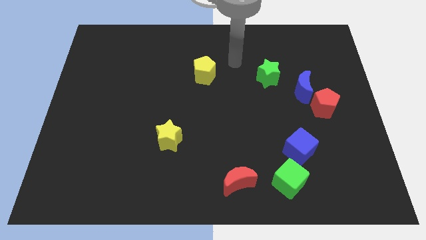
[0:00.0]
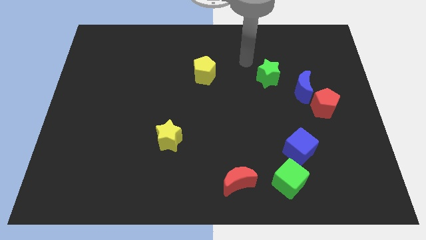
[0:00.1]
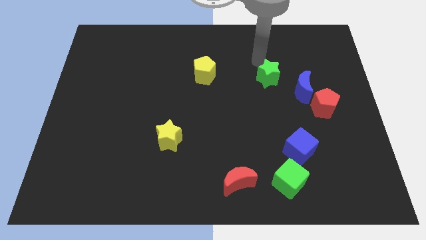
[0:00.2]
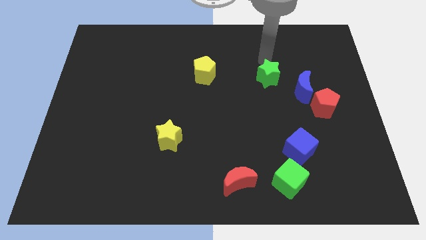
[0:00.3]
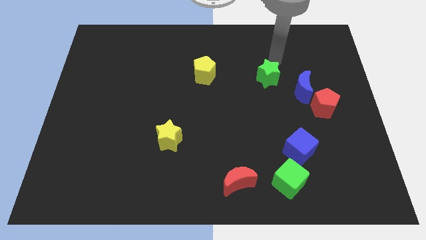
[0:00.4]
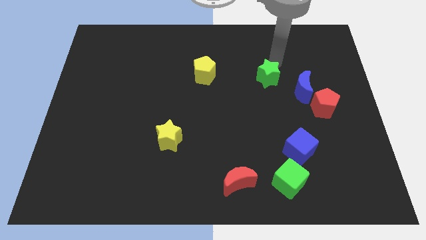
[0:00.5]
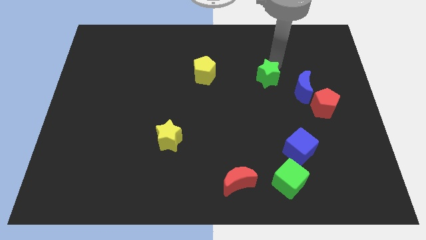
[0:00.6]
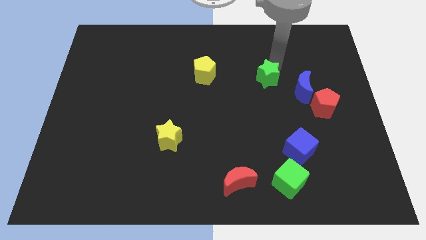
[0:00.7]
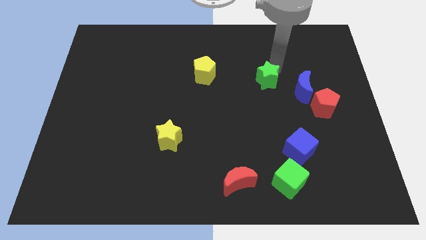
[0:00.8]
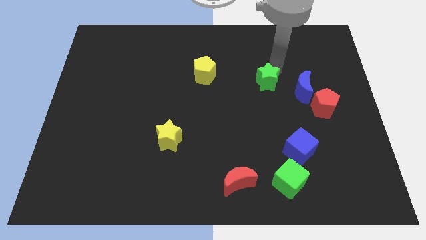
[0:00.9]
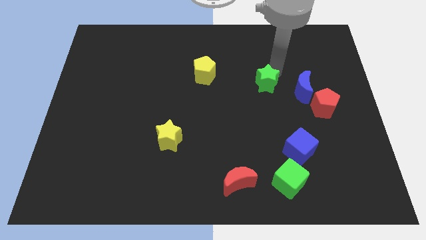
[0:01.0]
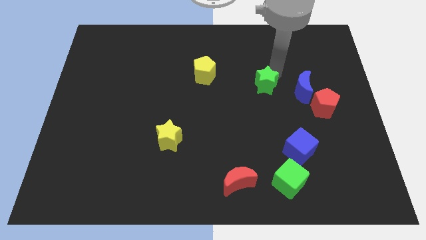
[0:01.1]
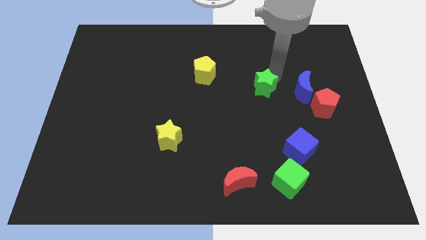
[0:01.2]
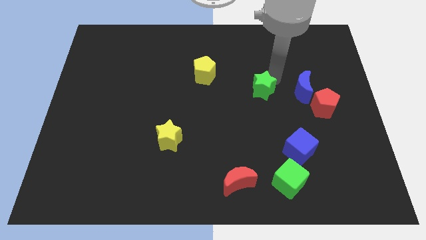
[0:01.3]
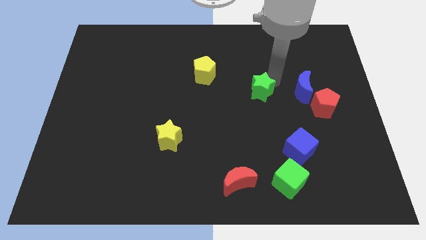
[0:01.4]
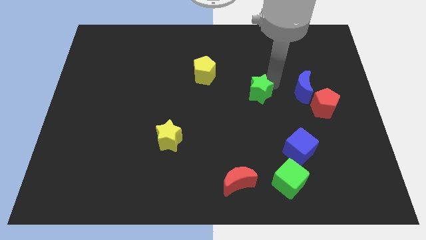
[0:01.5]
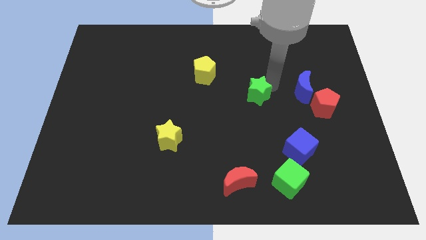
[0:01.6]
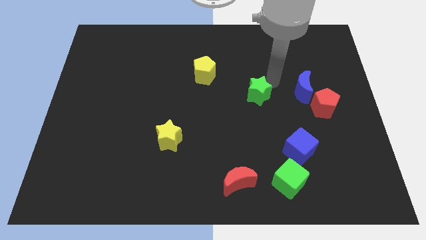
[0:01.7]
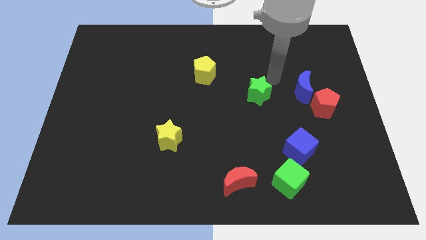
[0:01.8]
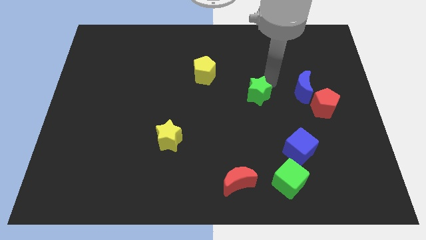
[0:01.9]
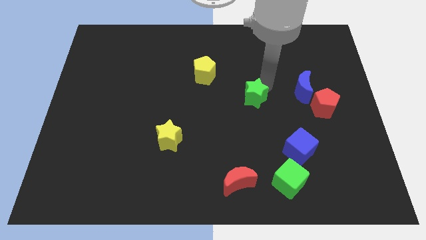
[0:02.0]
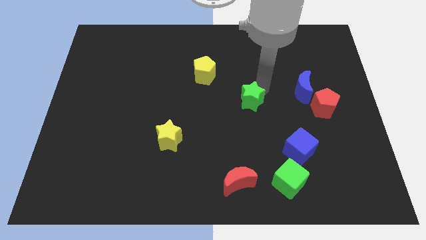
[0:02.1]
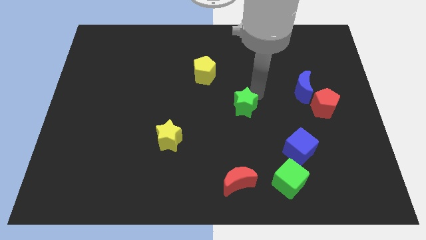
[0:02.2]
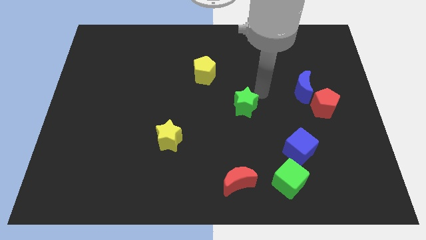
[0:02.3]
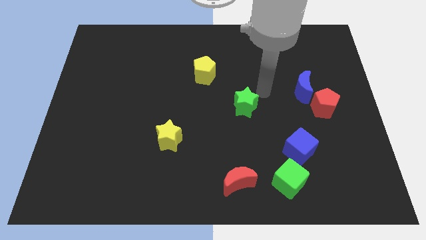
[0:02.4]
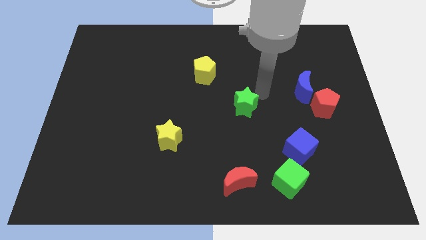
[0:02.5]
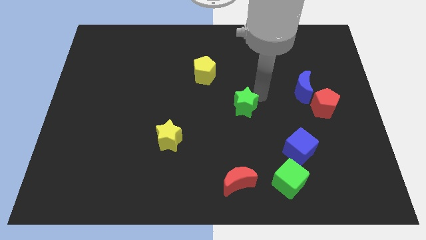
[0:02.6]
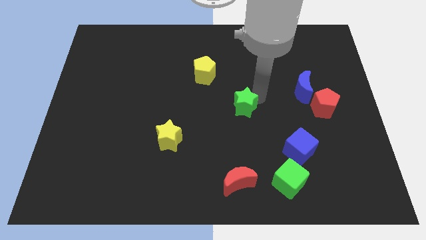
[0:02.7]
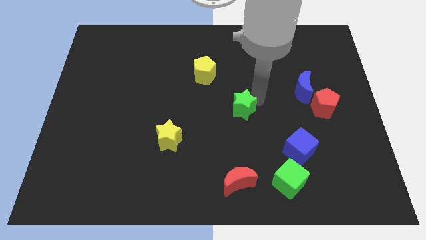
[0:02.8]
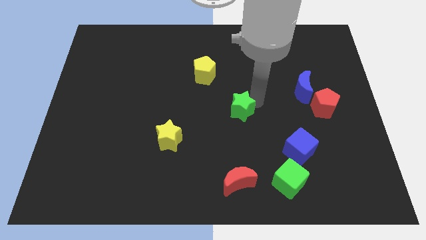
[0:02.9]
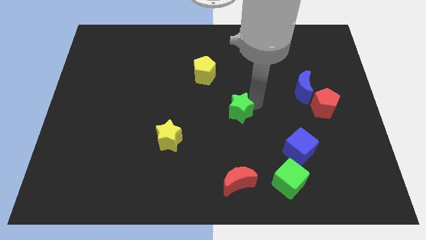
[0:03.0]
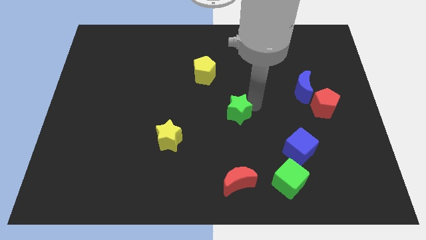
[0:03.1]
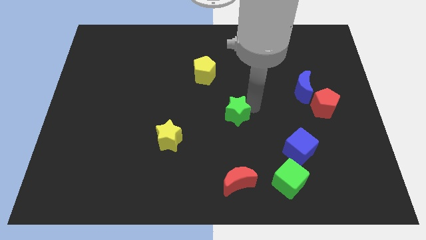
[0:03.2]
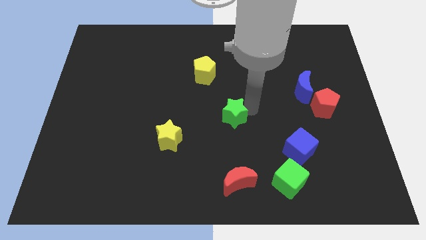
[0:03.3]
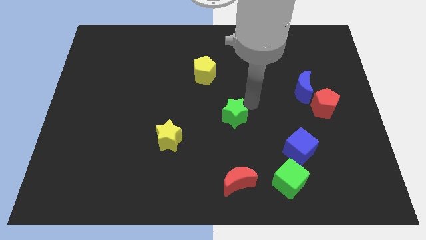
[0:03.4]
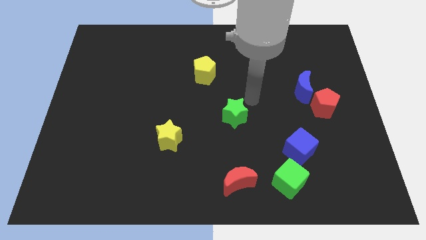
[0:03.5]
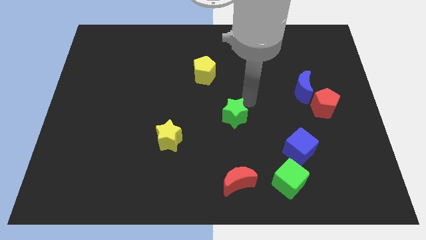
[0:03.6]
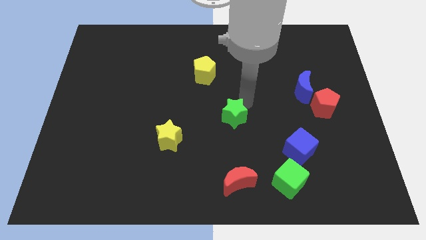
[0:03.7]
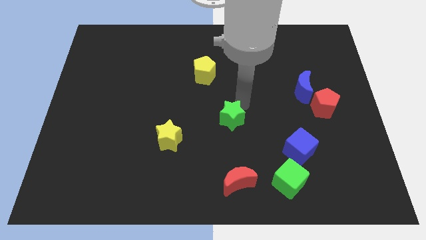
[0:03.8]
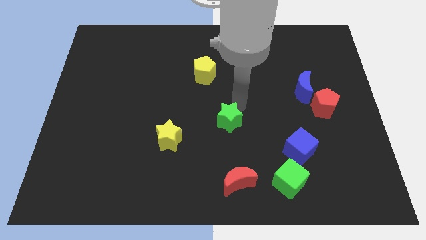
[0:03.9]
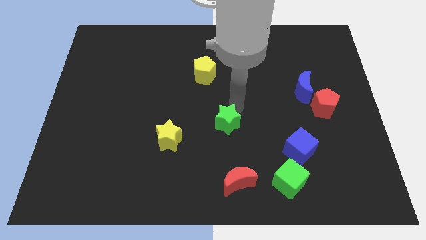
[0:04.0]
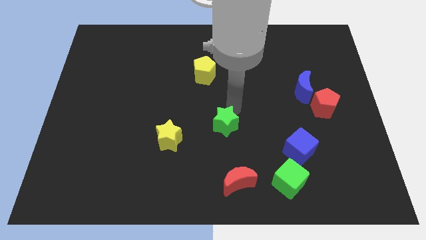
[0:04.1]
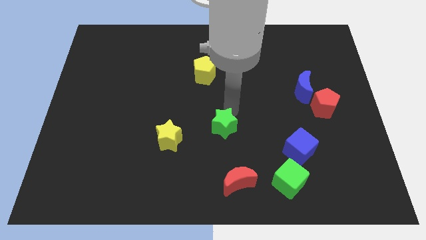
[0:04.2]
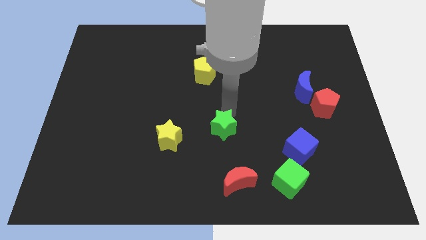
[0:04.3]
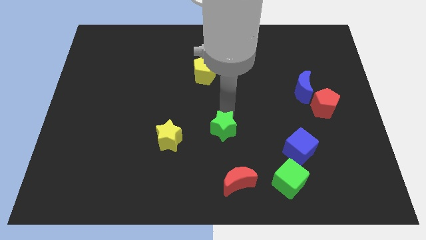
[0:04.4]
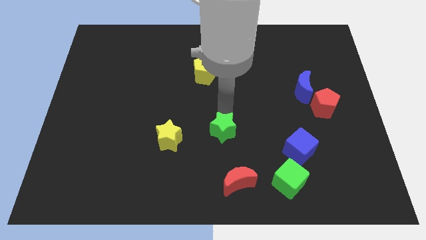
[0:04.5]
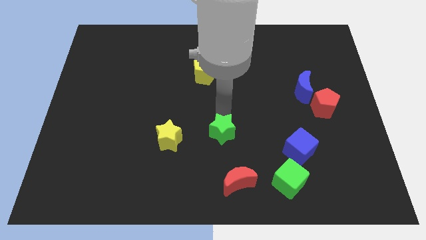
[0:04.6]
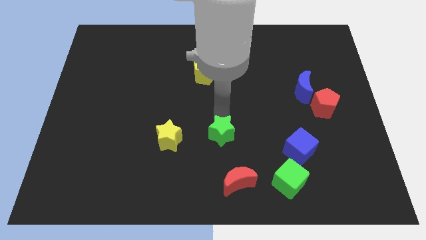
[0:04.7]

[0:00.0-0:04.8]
slide the green star downwards and left diagonally

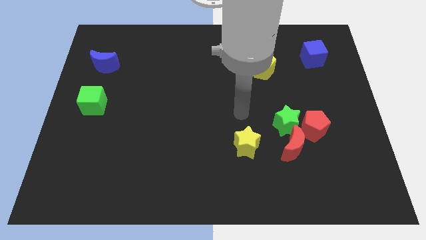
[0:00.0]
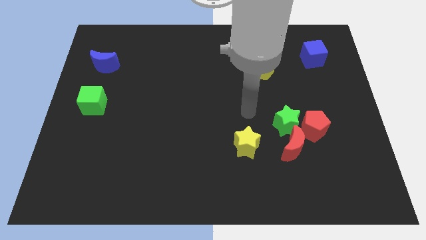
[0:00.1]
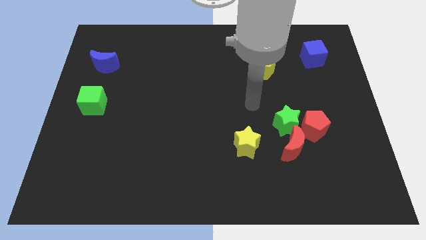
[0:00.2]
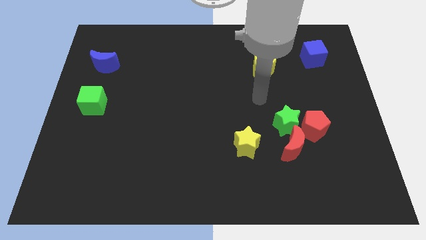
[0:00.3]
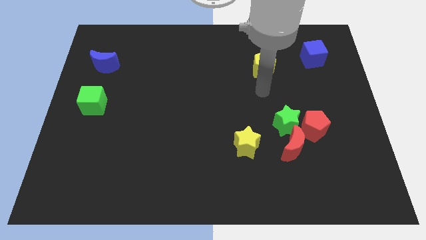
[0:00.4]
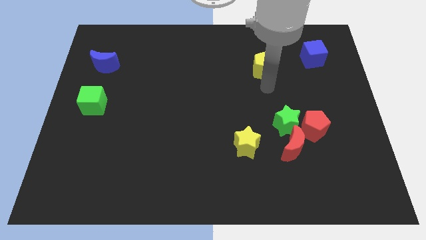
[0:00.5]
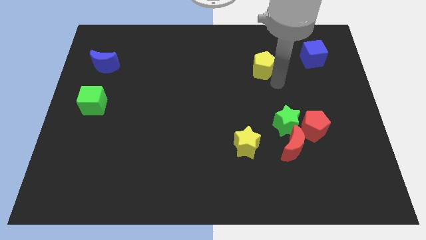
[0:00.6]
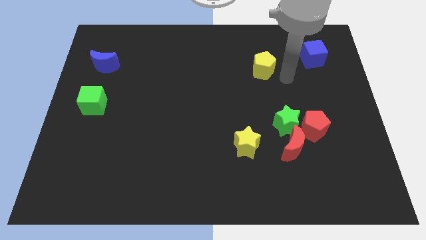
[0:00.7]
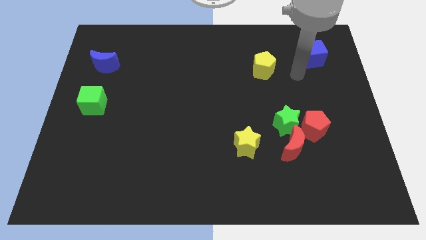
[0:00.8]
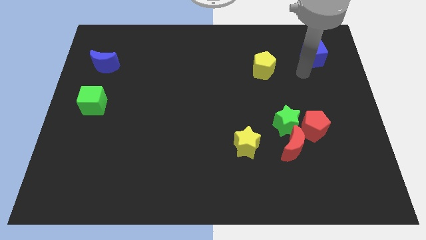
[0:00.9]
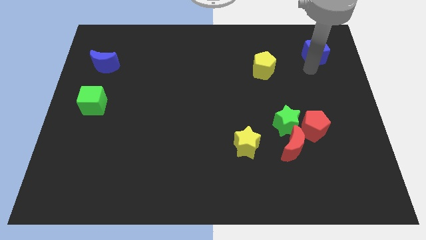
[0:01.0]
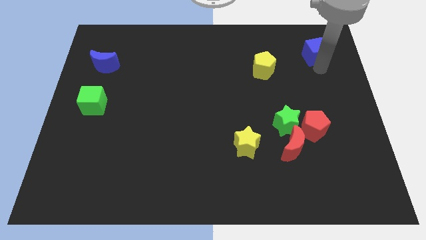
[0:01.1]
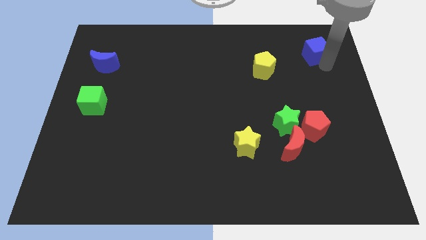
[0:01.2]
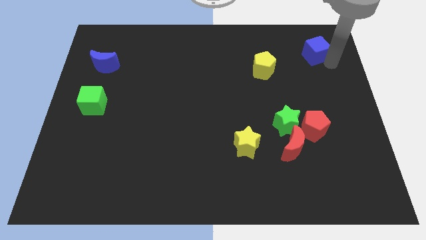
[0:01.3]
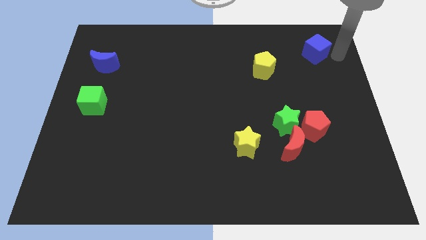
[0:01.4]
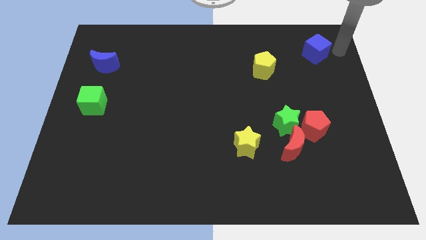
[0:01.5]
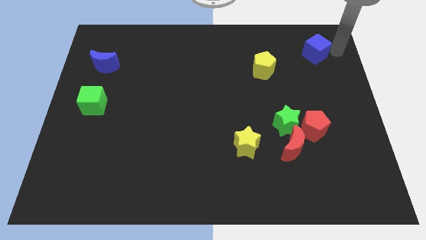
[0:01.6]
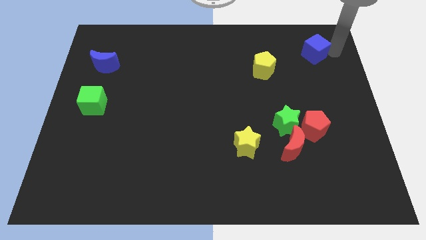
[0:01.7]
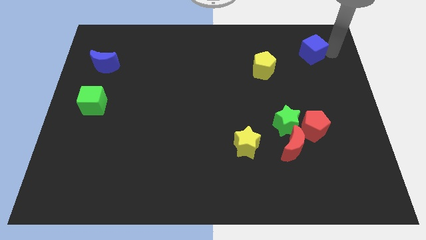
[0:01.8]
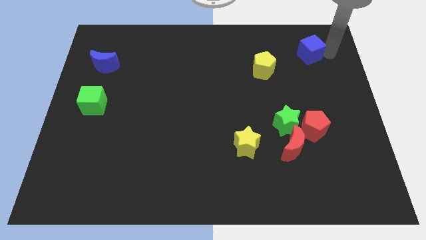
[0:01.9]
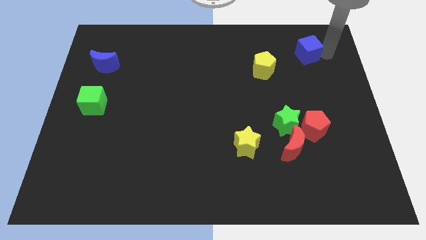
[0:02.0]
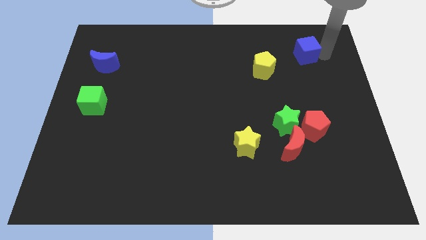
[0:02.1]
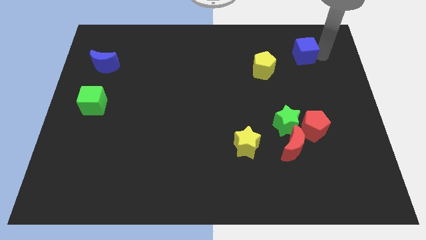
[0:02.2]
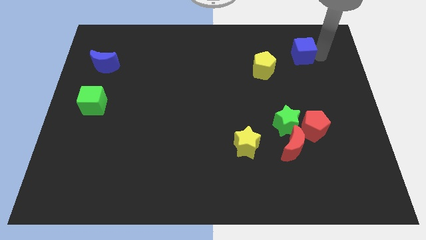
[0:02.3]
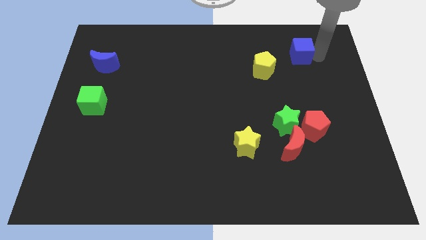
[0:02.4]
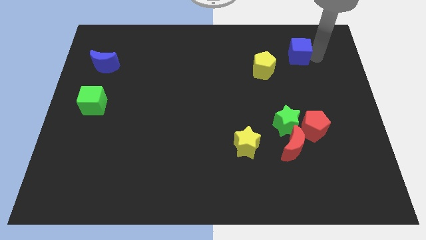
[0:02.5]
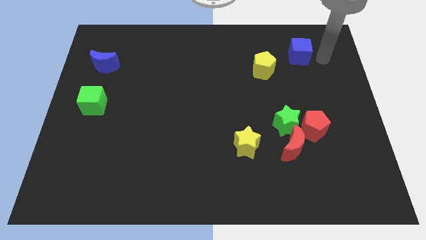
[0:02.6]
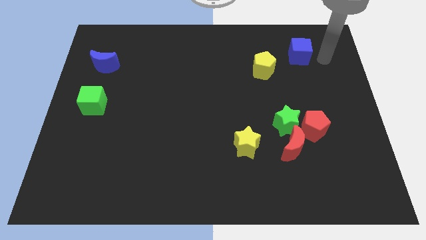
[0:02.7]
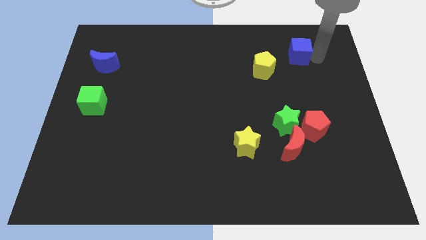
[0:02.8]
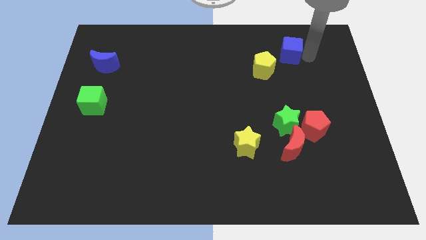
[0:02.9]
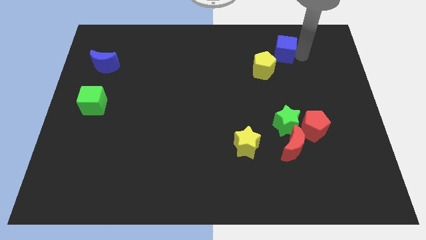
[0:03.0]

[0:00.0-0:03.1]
push the blue cube somewhat left

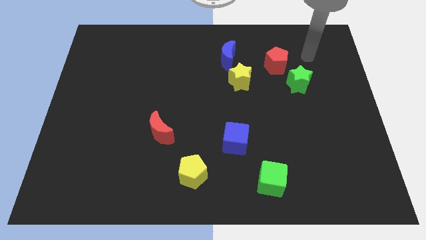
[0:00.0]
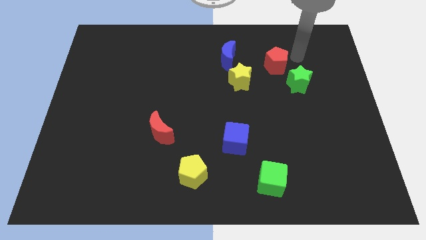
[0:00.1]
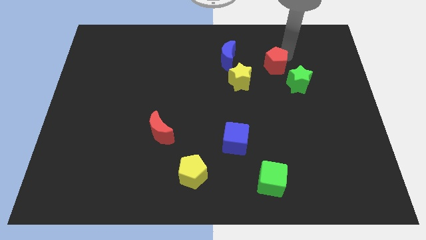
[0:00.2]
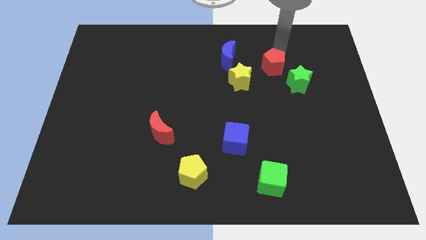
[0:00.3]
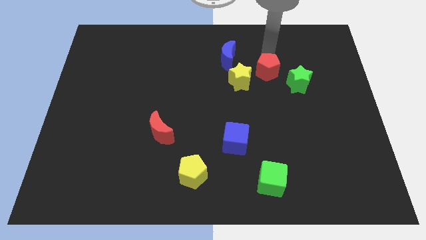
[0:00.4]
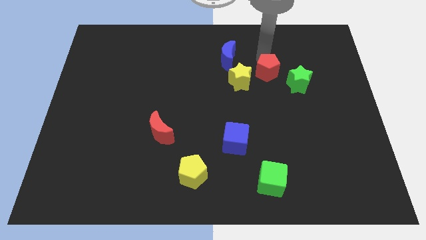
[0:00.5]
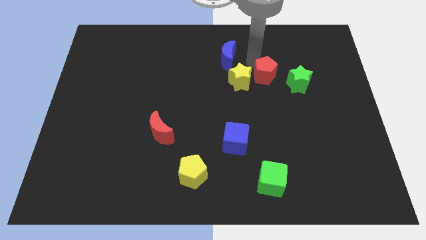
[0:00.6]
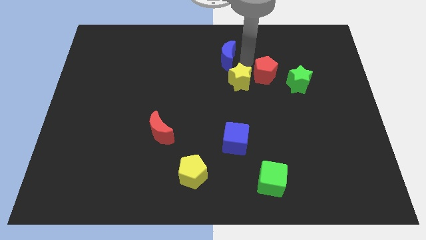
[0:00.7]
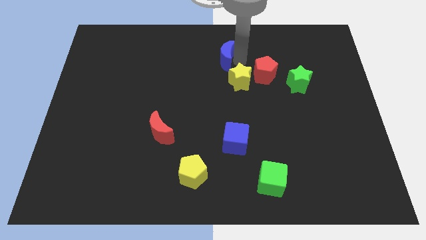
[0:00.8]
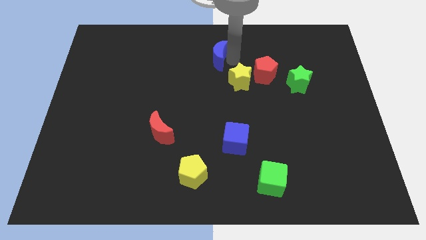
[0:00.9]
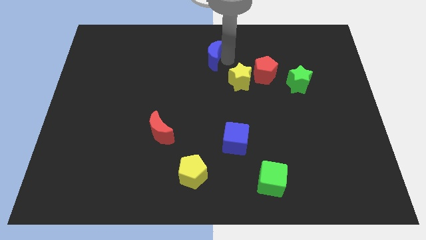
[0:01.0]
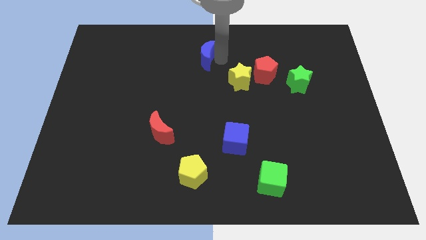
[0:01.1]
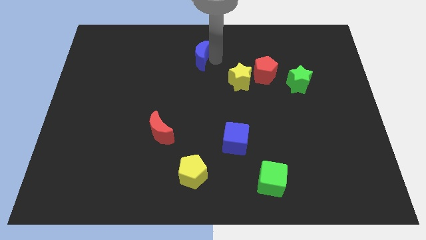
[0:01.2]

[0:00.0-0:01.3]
slide the blue moon a little bit to the left
